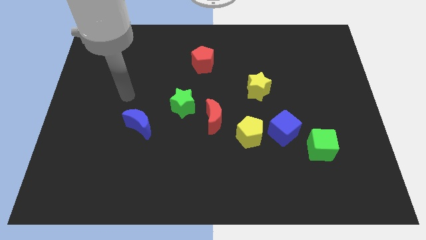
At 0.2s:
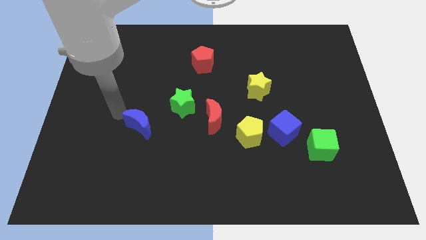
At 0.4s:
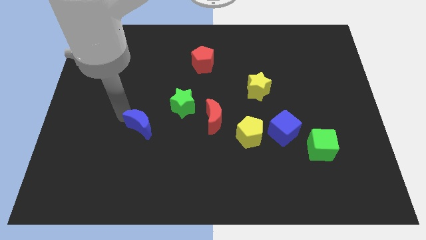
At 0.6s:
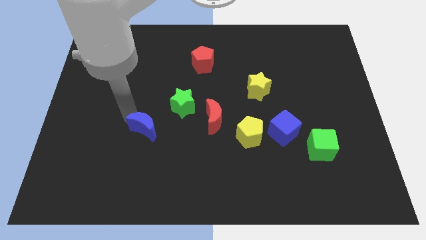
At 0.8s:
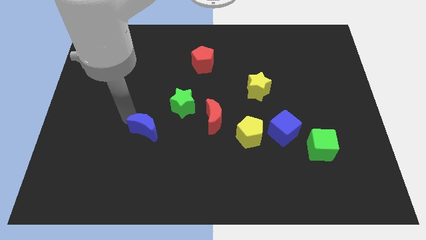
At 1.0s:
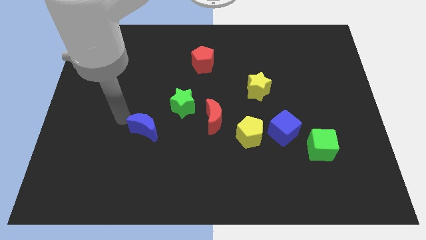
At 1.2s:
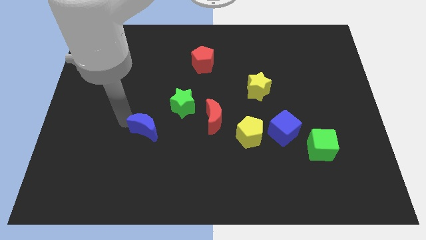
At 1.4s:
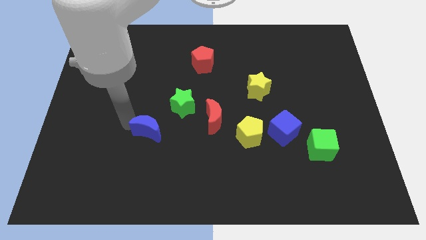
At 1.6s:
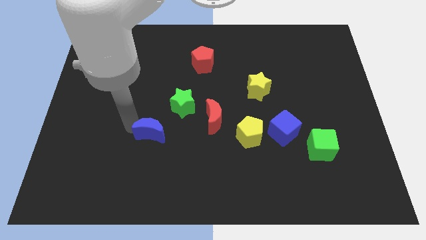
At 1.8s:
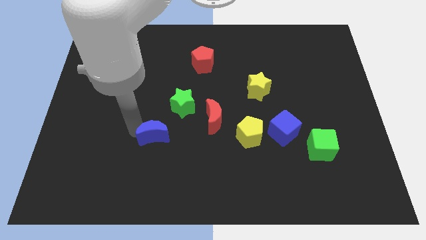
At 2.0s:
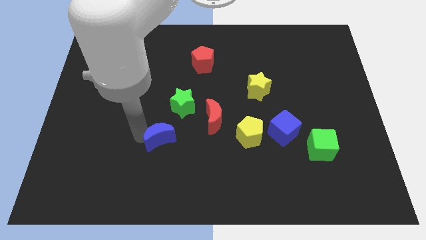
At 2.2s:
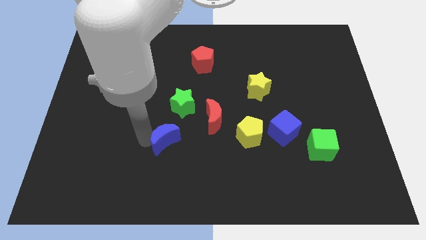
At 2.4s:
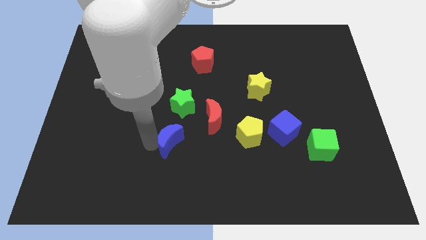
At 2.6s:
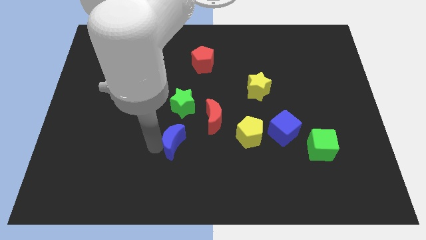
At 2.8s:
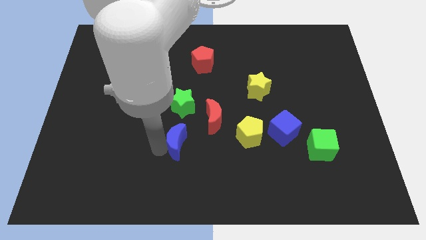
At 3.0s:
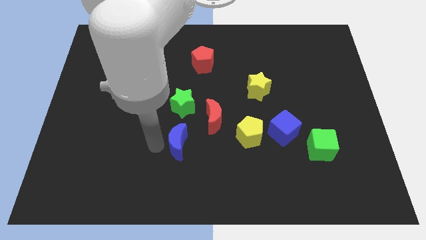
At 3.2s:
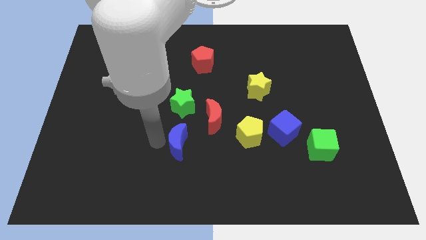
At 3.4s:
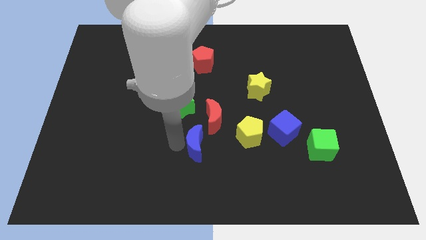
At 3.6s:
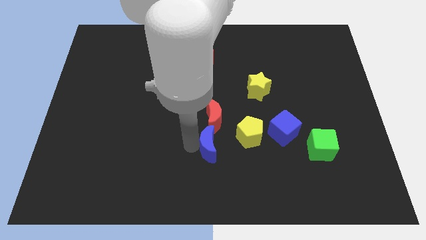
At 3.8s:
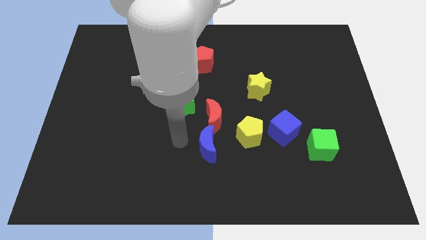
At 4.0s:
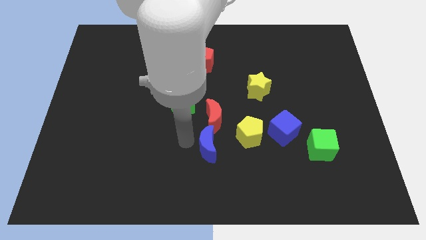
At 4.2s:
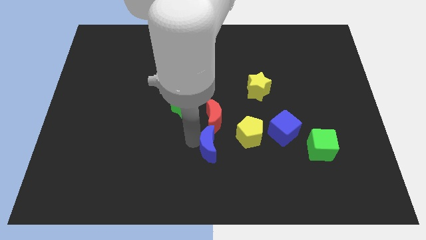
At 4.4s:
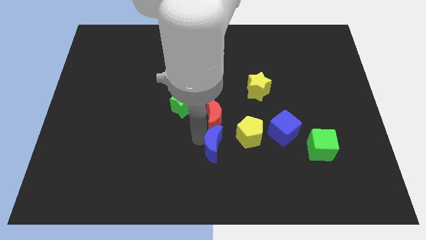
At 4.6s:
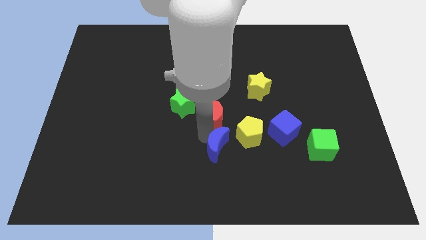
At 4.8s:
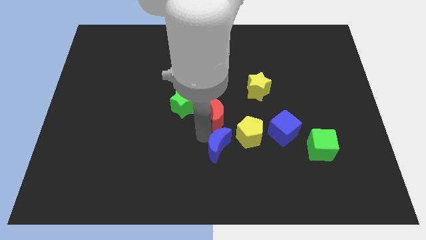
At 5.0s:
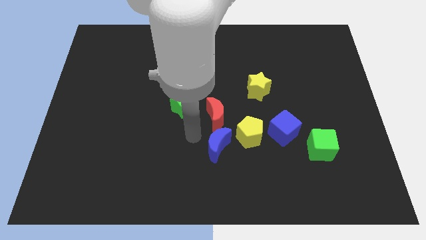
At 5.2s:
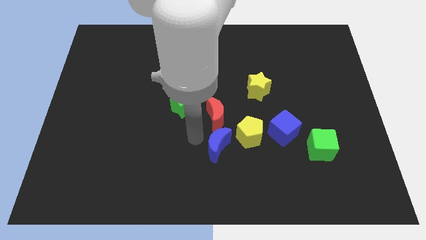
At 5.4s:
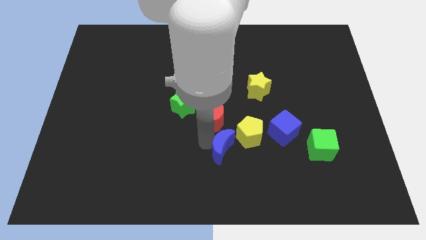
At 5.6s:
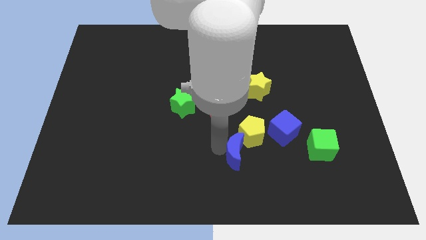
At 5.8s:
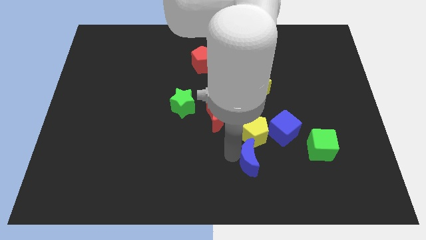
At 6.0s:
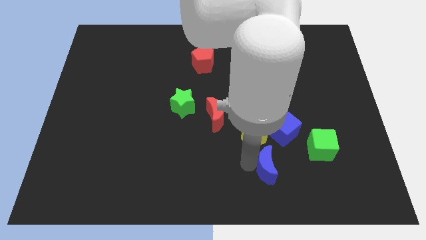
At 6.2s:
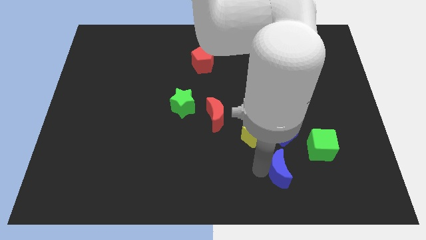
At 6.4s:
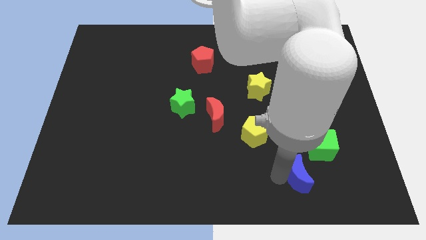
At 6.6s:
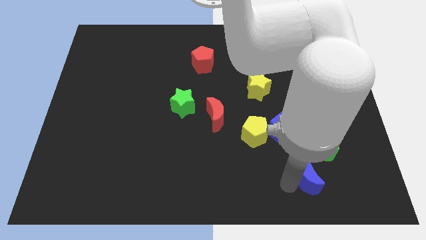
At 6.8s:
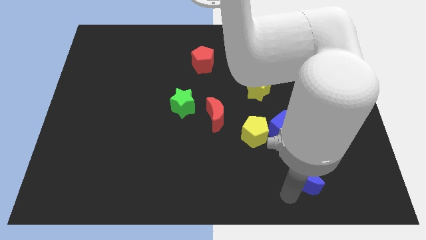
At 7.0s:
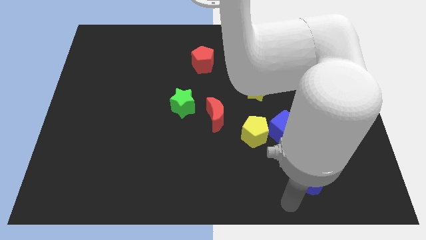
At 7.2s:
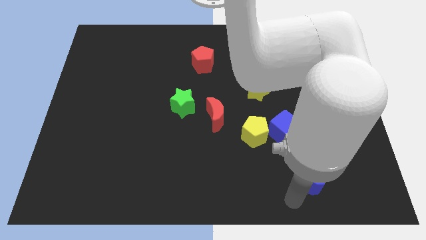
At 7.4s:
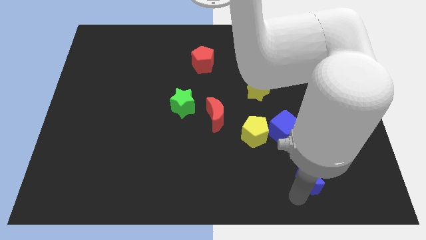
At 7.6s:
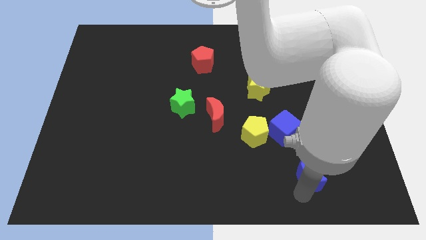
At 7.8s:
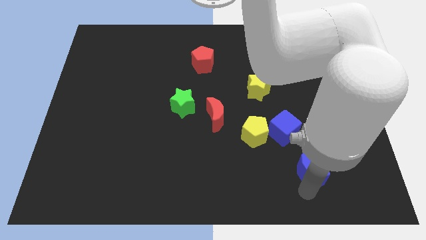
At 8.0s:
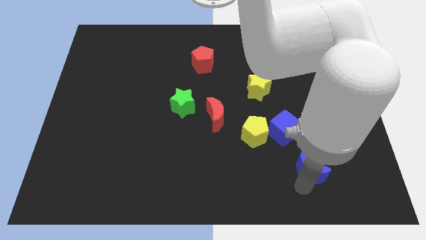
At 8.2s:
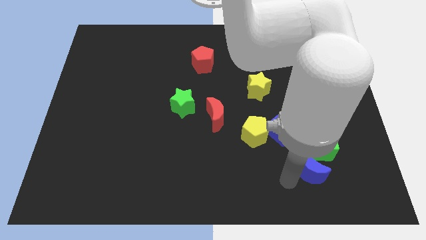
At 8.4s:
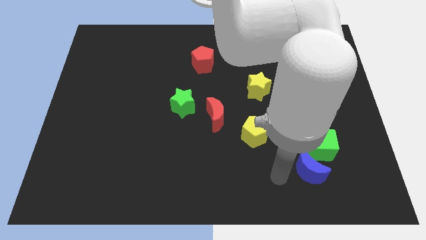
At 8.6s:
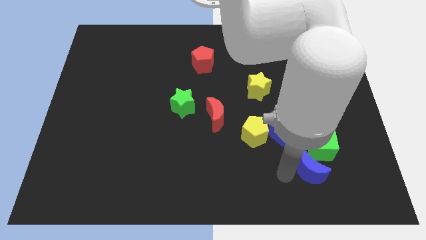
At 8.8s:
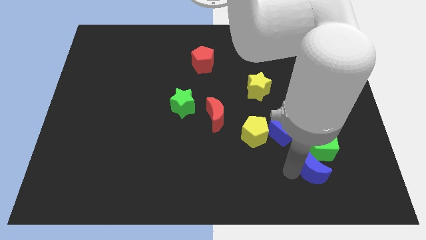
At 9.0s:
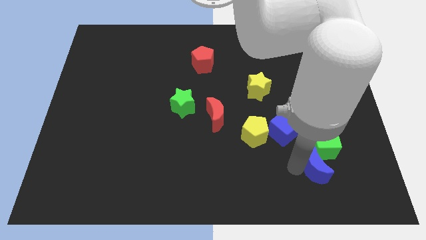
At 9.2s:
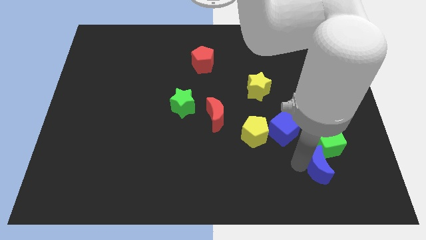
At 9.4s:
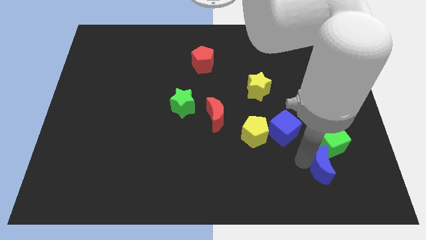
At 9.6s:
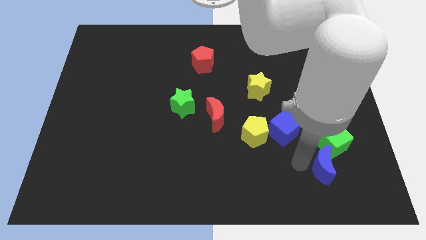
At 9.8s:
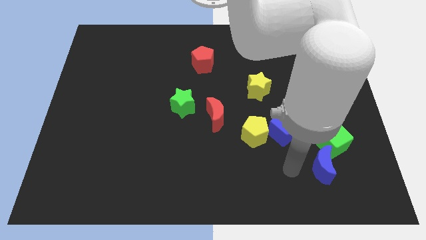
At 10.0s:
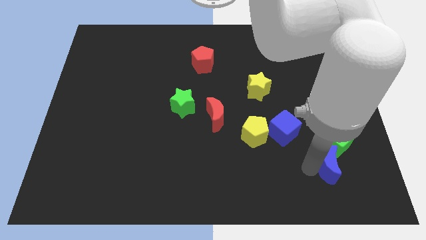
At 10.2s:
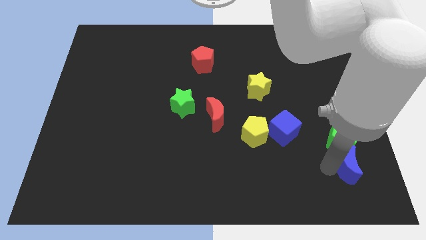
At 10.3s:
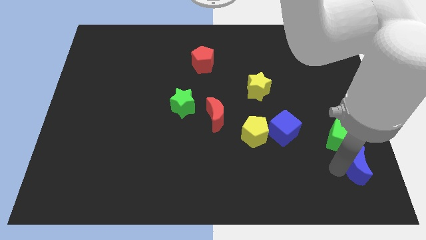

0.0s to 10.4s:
put the blue moon to the bottom right side of the green cube

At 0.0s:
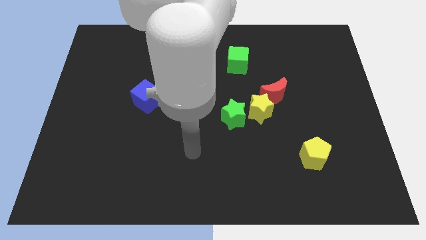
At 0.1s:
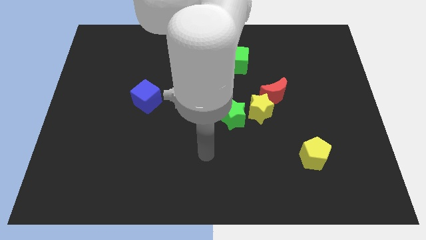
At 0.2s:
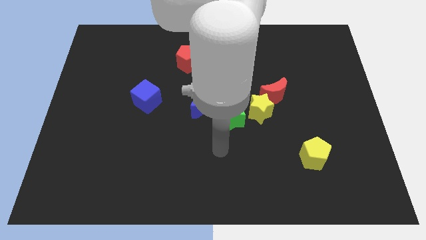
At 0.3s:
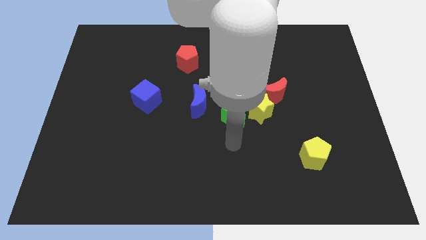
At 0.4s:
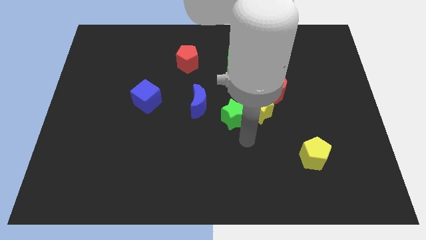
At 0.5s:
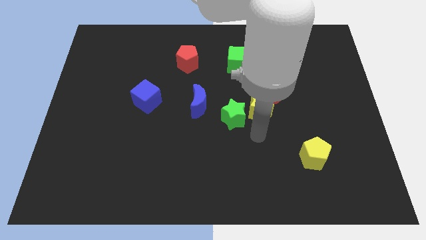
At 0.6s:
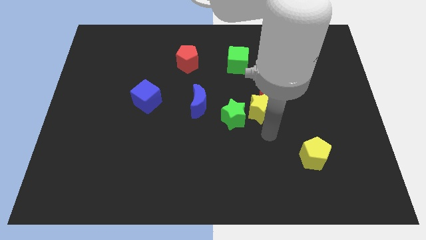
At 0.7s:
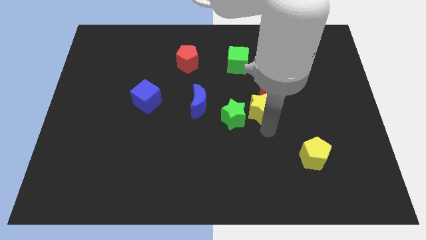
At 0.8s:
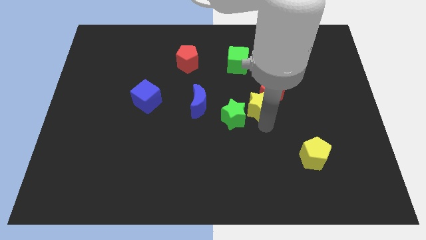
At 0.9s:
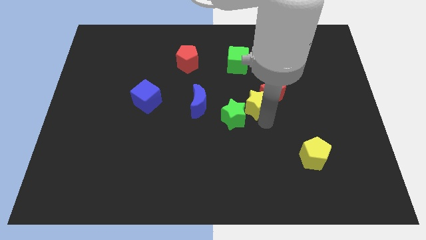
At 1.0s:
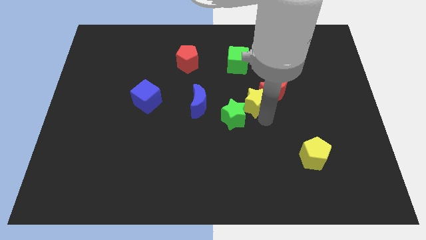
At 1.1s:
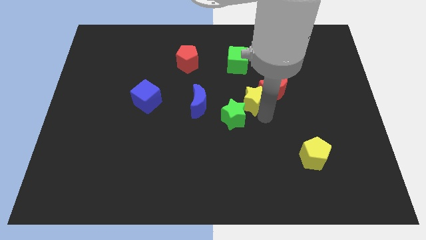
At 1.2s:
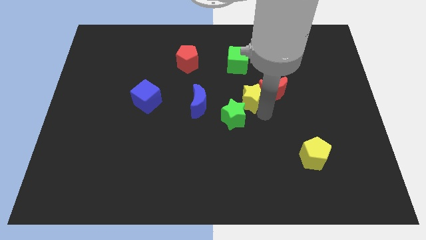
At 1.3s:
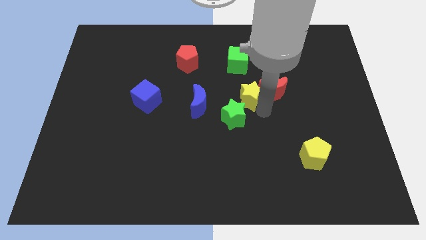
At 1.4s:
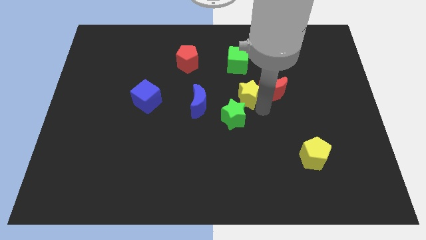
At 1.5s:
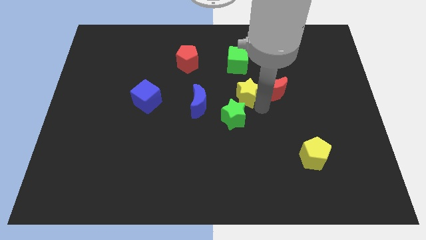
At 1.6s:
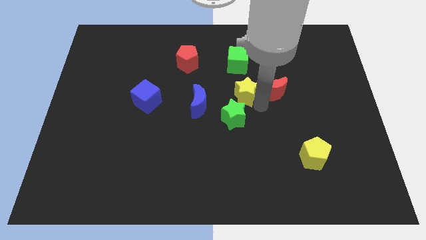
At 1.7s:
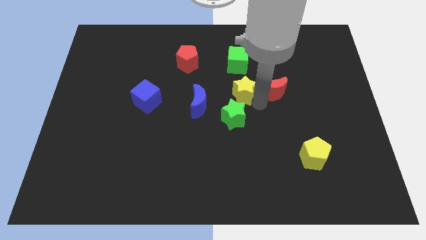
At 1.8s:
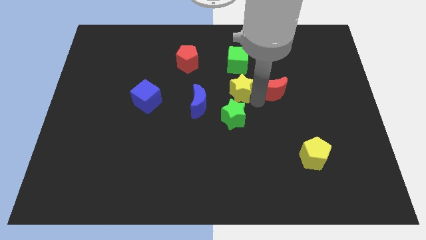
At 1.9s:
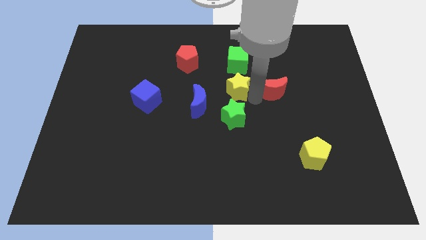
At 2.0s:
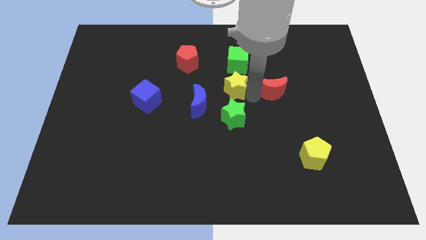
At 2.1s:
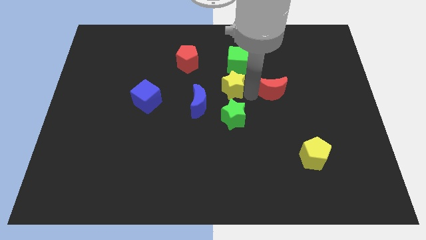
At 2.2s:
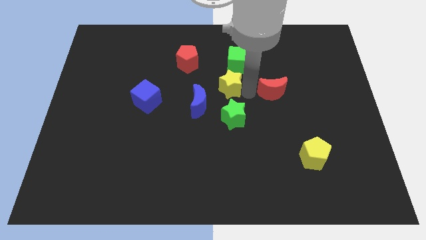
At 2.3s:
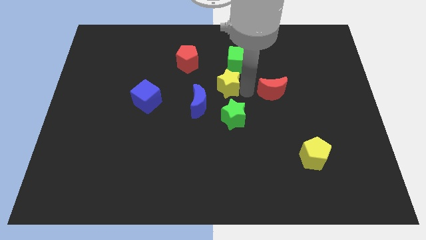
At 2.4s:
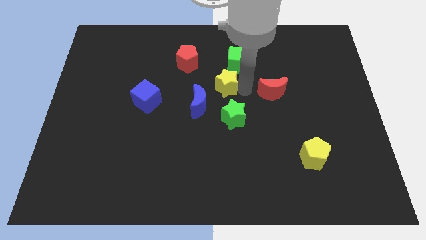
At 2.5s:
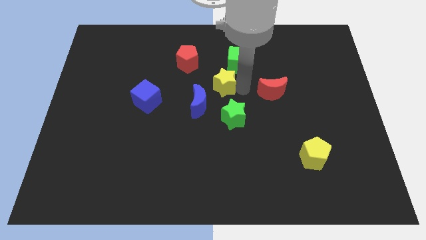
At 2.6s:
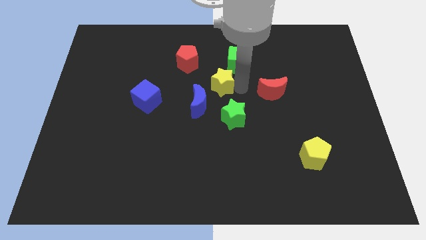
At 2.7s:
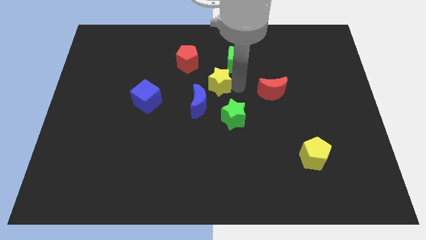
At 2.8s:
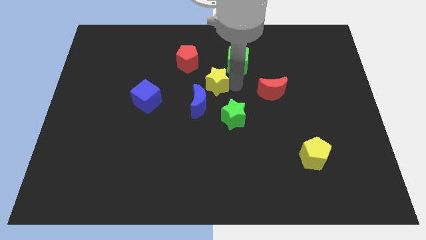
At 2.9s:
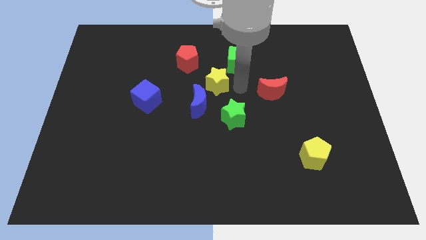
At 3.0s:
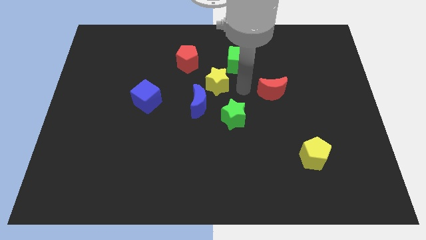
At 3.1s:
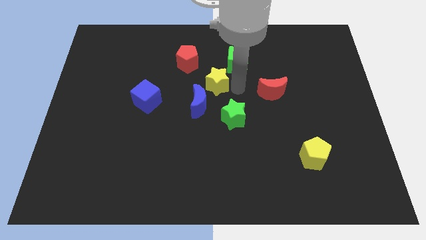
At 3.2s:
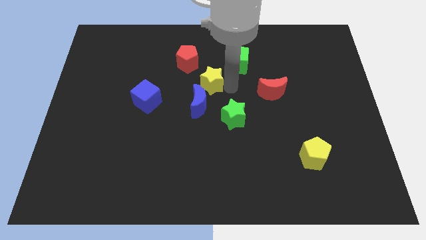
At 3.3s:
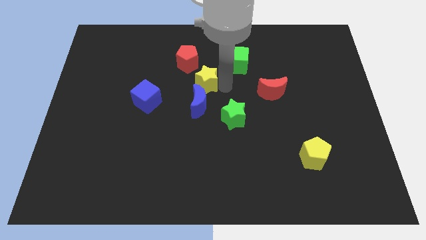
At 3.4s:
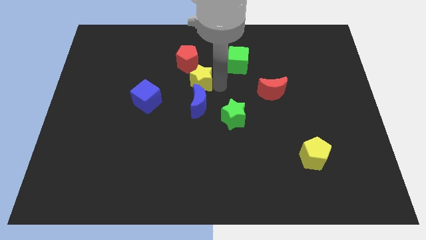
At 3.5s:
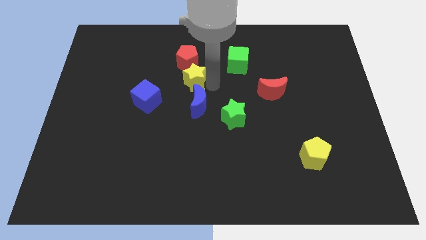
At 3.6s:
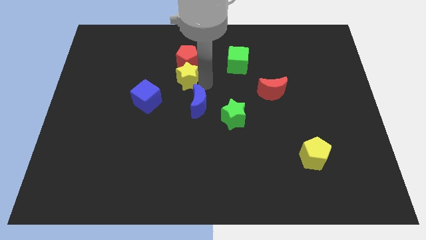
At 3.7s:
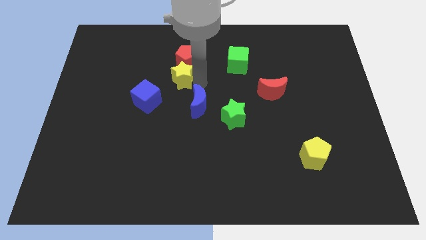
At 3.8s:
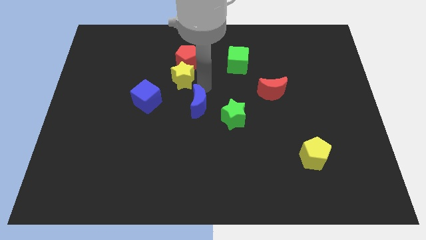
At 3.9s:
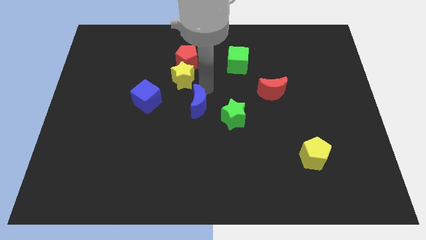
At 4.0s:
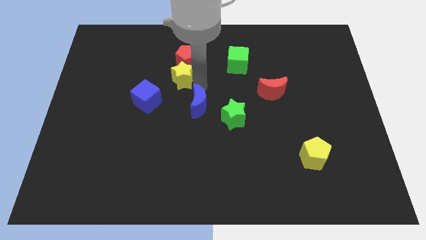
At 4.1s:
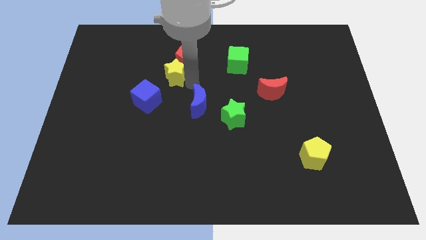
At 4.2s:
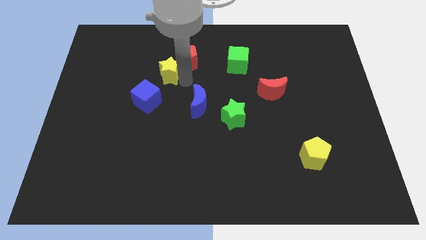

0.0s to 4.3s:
put the yellow star to the top side of the blue cube
